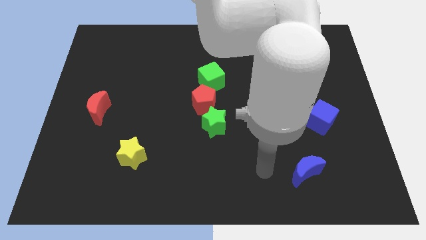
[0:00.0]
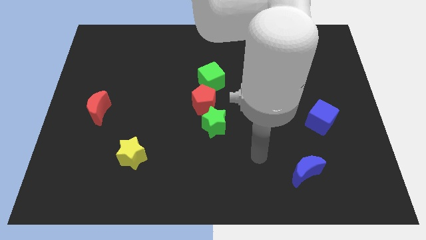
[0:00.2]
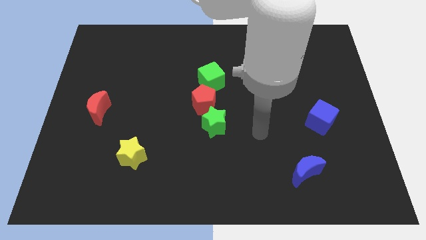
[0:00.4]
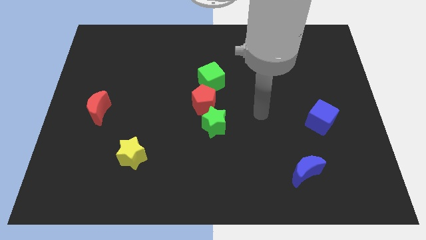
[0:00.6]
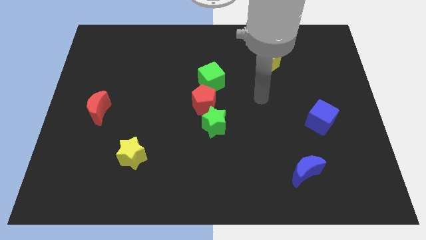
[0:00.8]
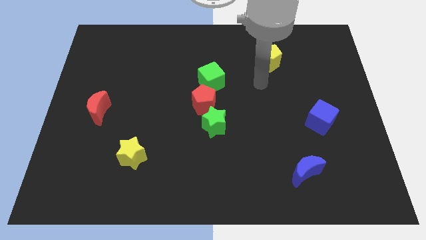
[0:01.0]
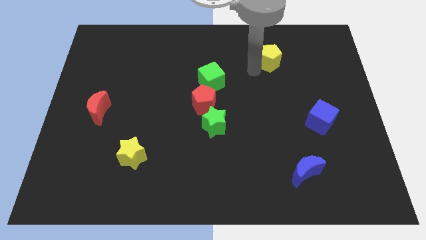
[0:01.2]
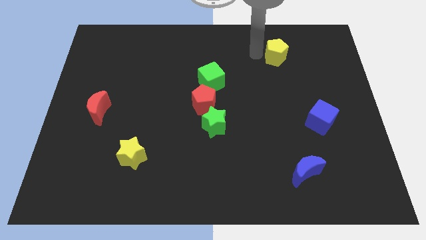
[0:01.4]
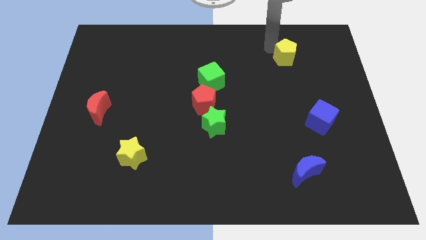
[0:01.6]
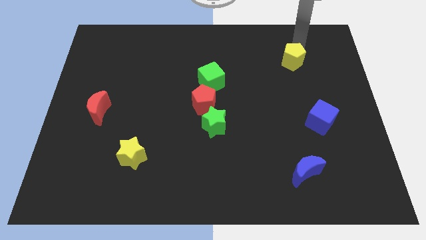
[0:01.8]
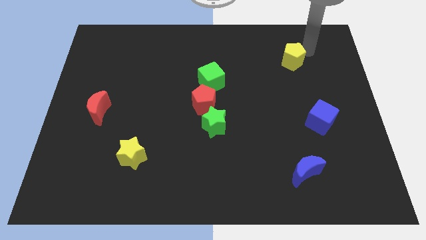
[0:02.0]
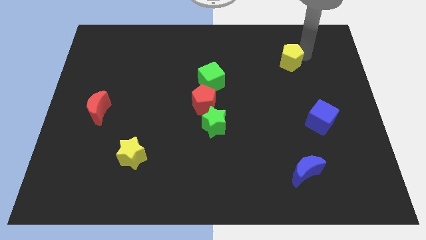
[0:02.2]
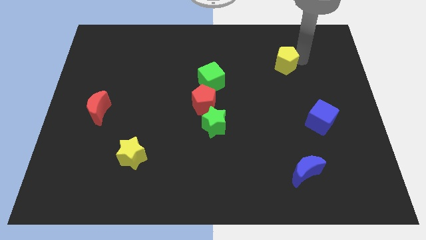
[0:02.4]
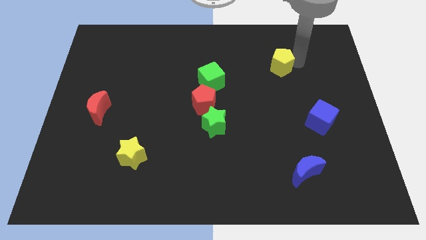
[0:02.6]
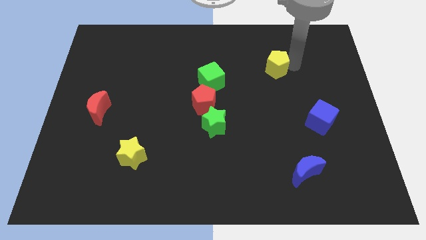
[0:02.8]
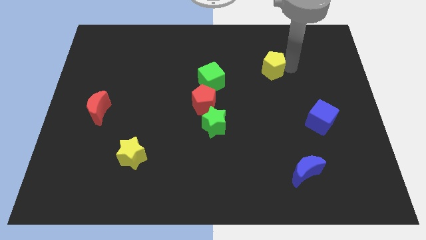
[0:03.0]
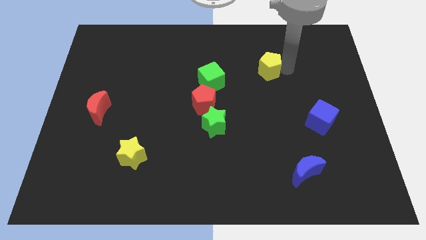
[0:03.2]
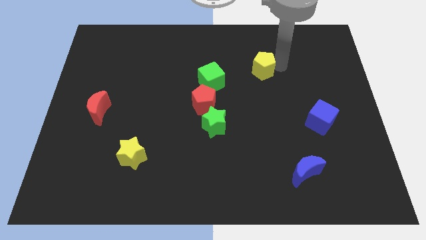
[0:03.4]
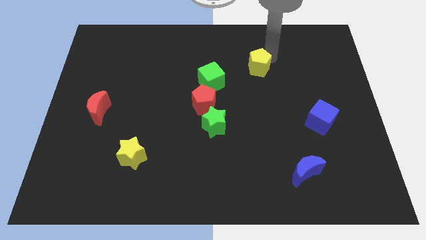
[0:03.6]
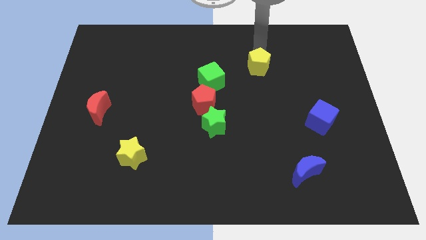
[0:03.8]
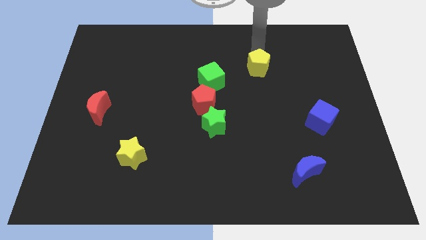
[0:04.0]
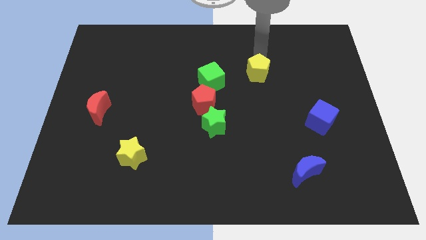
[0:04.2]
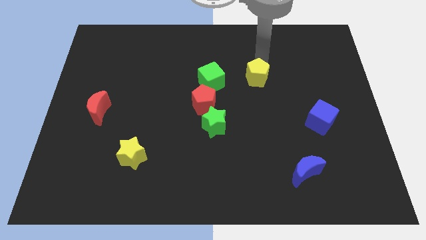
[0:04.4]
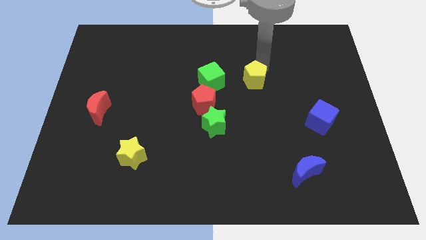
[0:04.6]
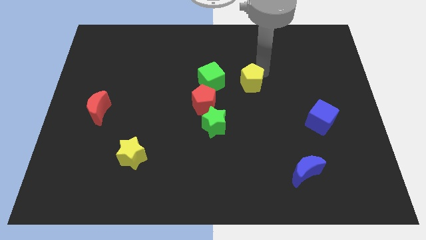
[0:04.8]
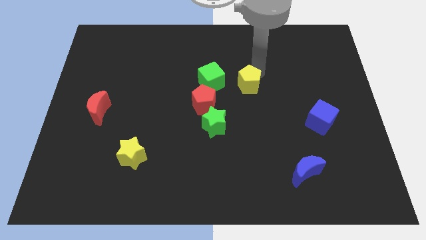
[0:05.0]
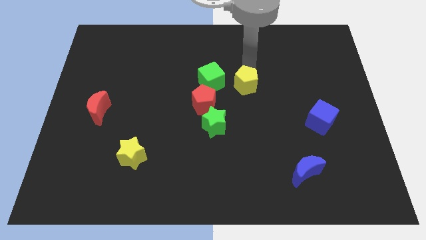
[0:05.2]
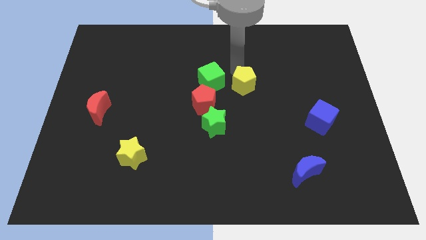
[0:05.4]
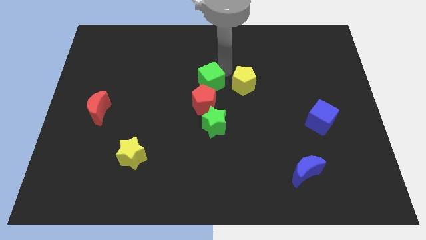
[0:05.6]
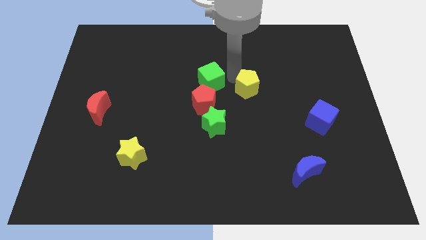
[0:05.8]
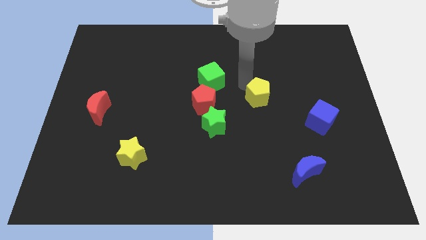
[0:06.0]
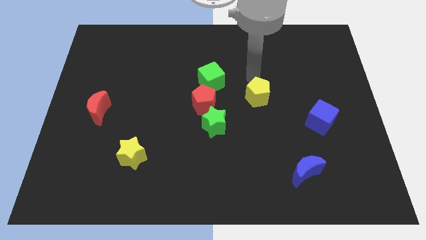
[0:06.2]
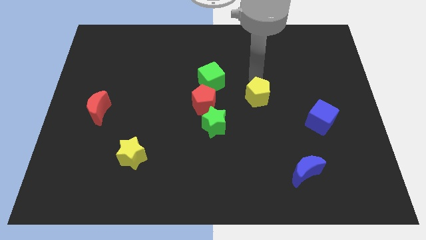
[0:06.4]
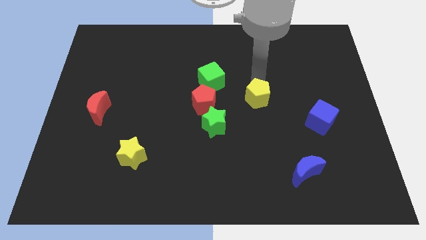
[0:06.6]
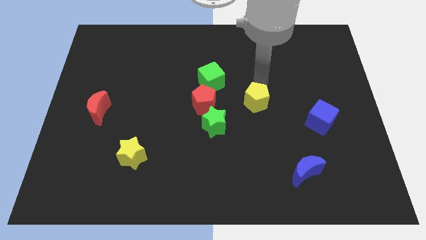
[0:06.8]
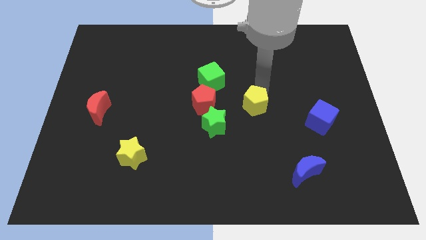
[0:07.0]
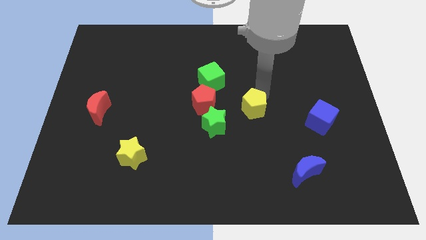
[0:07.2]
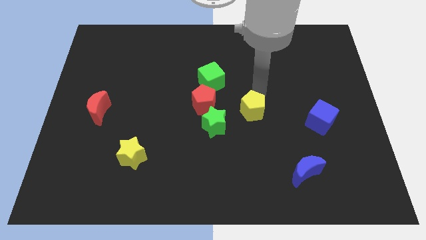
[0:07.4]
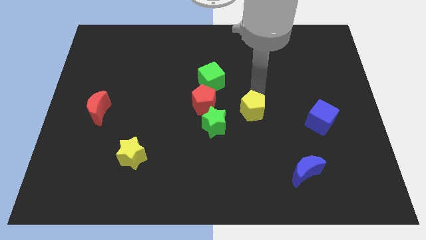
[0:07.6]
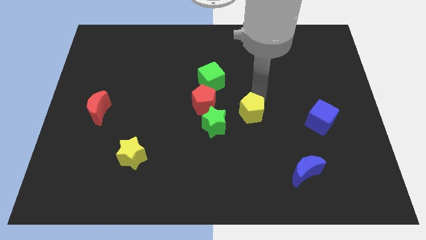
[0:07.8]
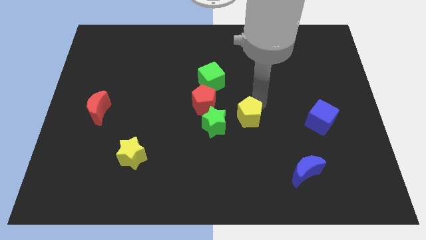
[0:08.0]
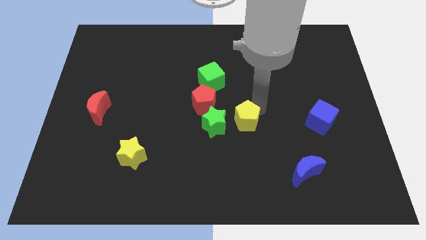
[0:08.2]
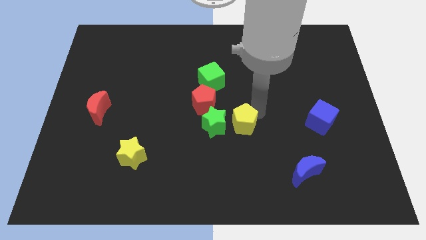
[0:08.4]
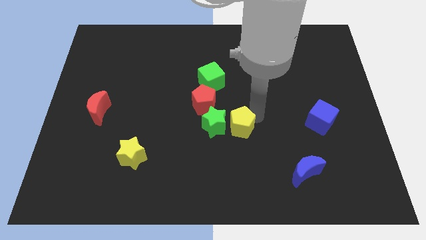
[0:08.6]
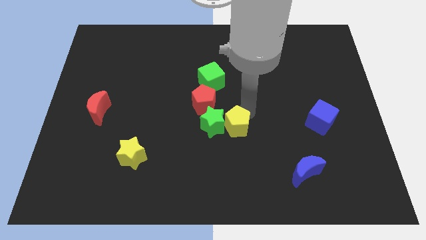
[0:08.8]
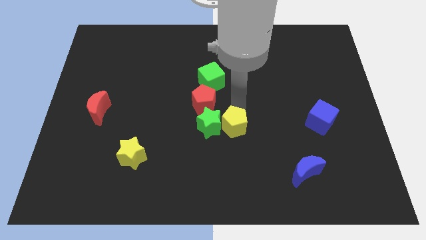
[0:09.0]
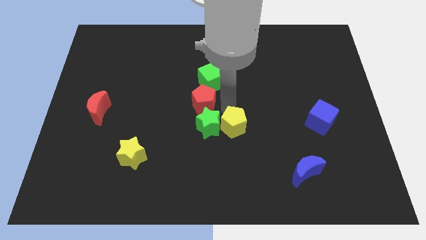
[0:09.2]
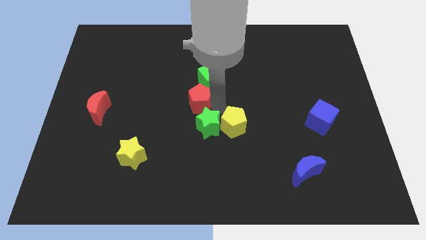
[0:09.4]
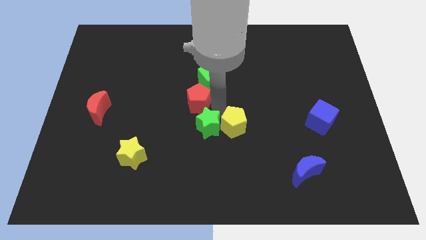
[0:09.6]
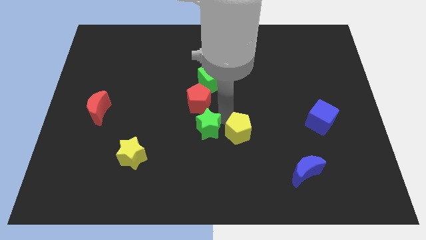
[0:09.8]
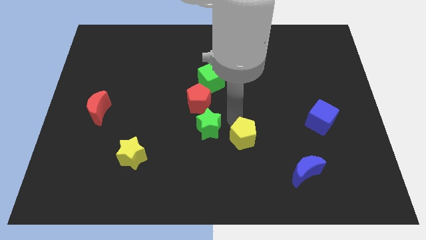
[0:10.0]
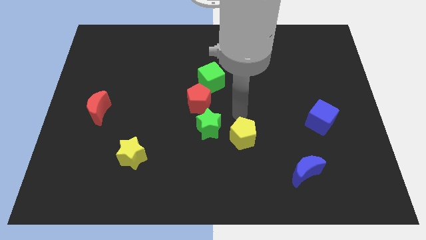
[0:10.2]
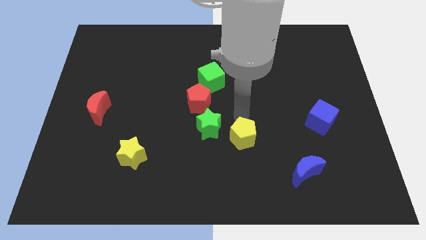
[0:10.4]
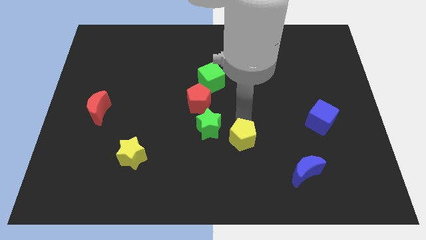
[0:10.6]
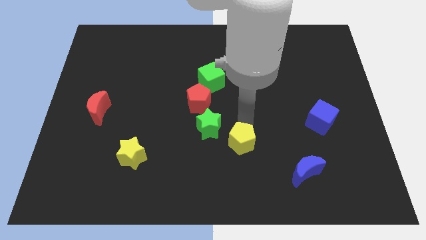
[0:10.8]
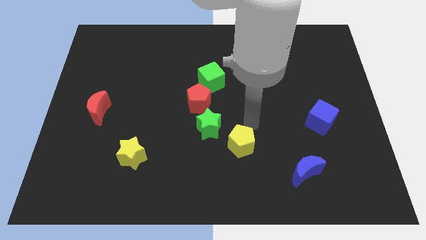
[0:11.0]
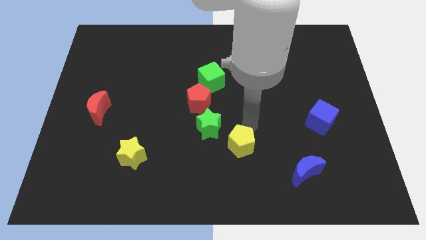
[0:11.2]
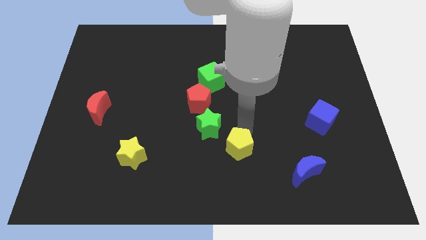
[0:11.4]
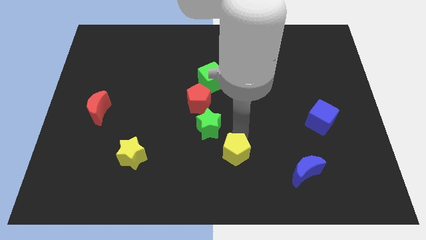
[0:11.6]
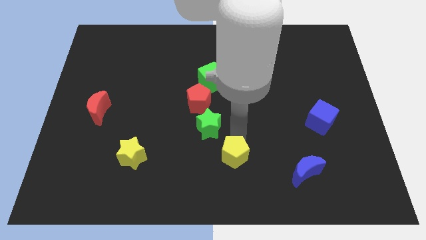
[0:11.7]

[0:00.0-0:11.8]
put the yellow pentagon to the bottom side

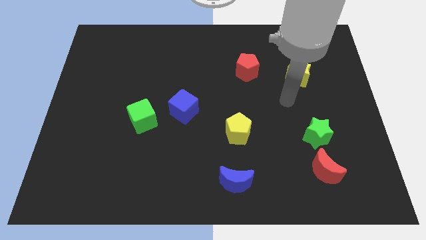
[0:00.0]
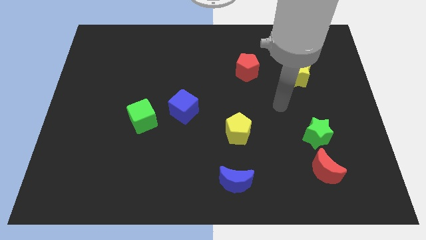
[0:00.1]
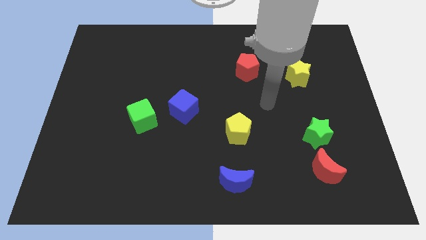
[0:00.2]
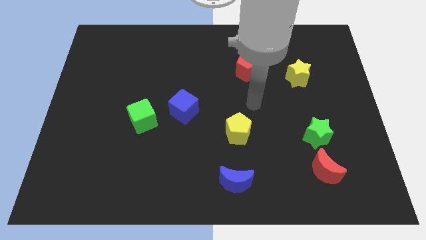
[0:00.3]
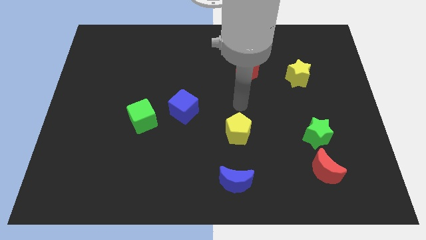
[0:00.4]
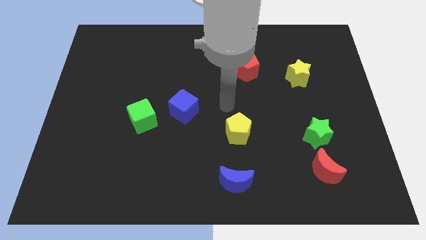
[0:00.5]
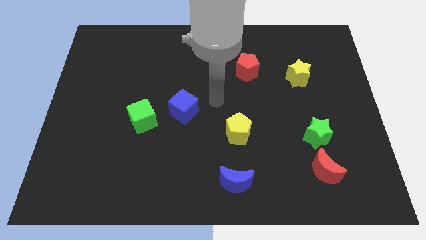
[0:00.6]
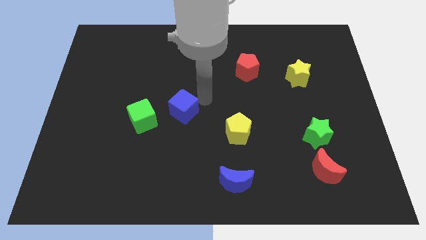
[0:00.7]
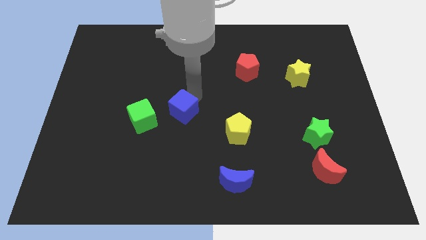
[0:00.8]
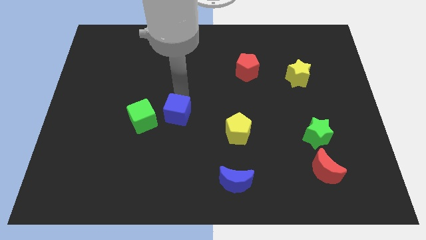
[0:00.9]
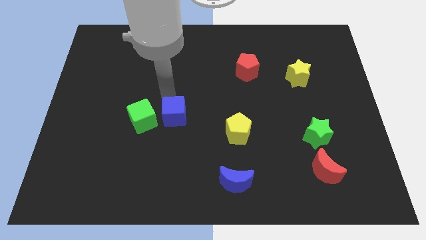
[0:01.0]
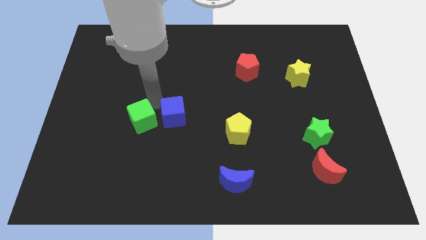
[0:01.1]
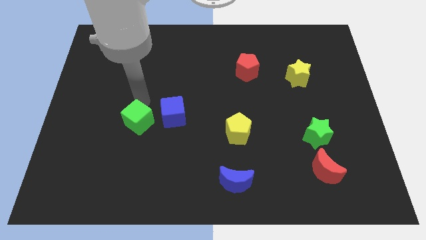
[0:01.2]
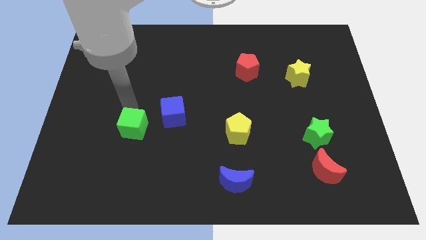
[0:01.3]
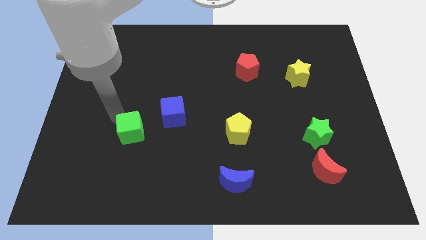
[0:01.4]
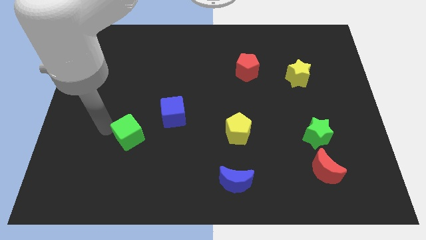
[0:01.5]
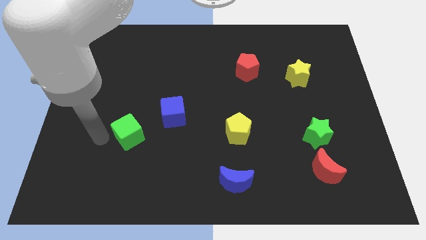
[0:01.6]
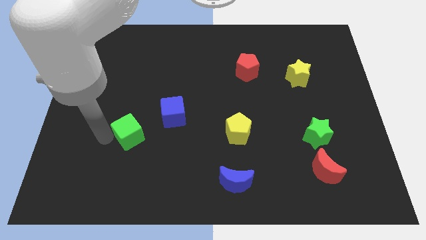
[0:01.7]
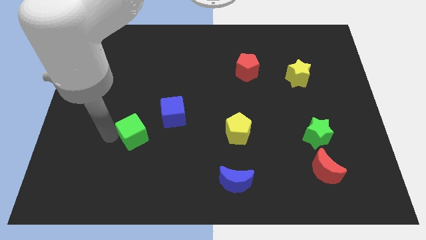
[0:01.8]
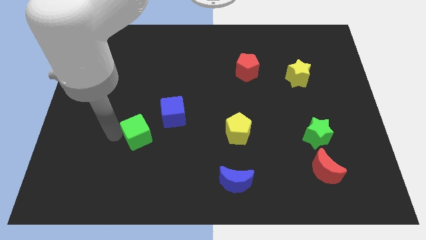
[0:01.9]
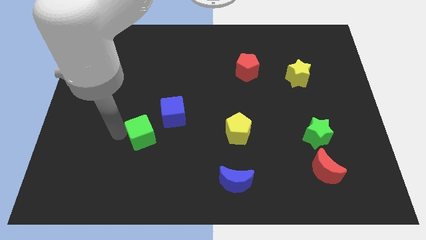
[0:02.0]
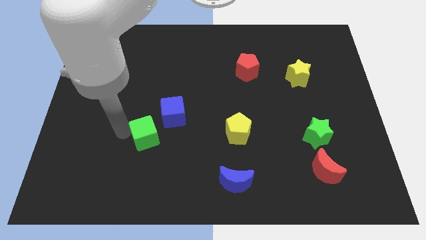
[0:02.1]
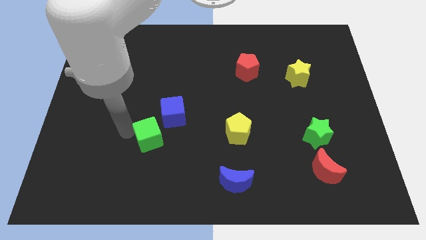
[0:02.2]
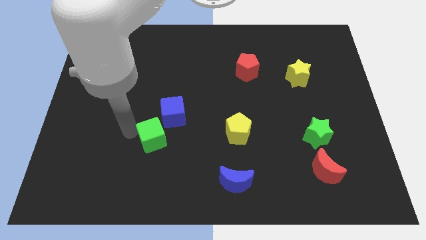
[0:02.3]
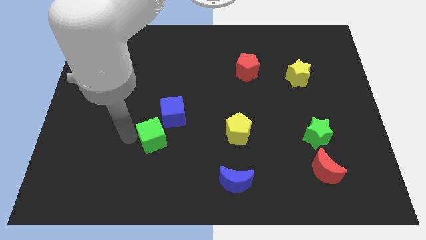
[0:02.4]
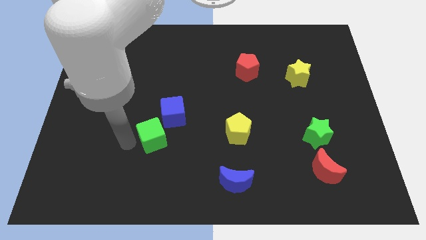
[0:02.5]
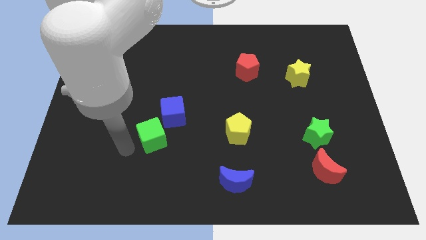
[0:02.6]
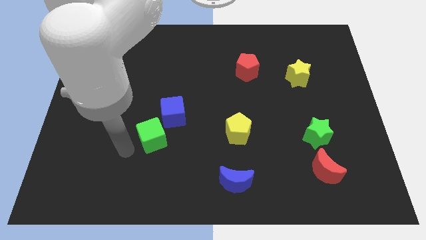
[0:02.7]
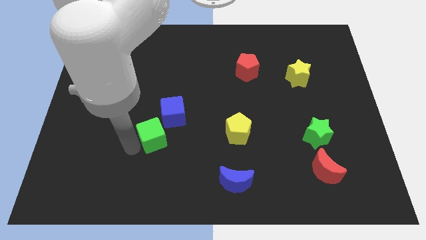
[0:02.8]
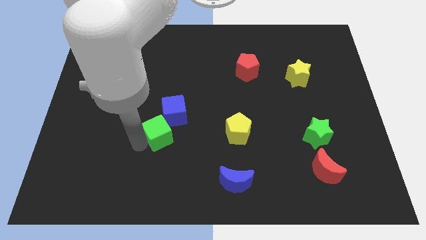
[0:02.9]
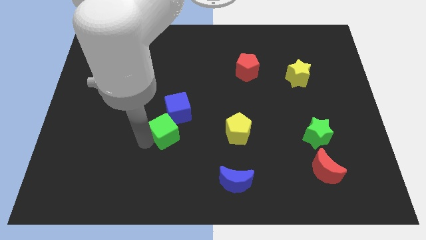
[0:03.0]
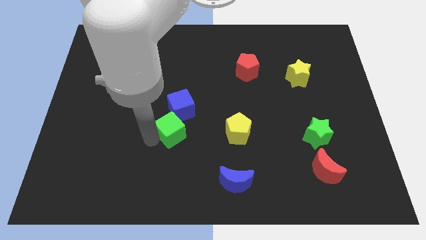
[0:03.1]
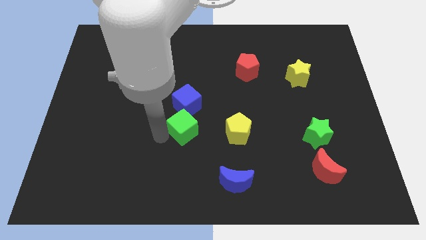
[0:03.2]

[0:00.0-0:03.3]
push the green cube to the middle of the board
